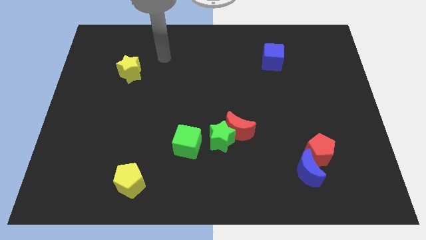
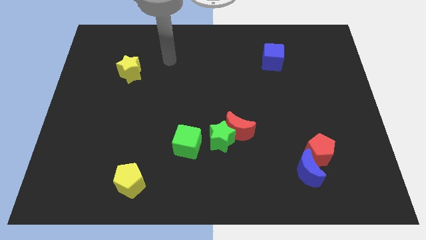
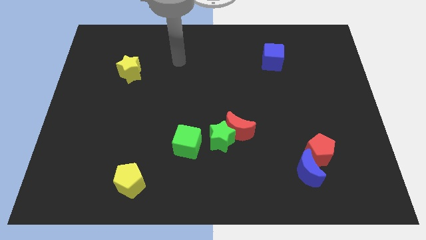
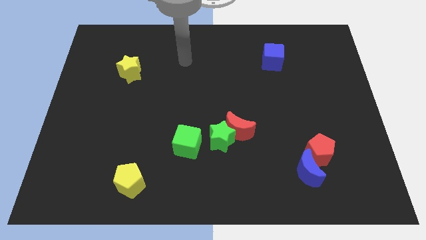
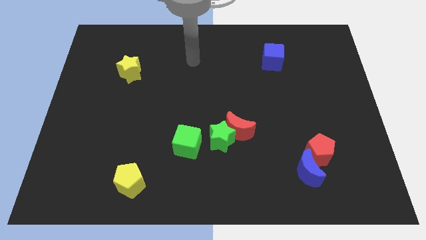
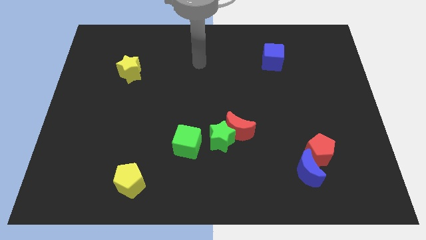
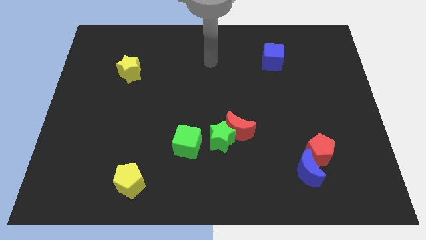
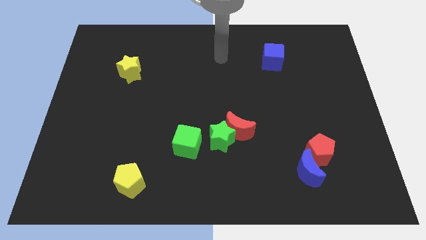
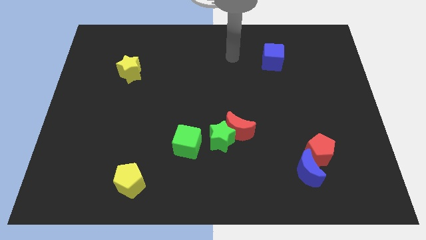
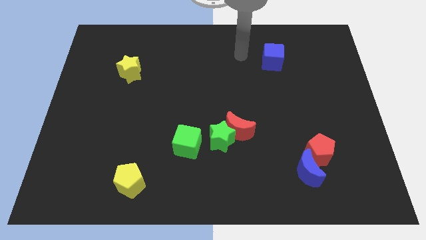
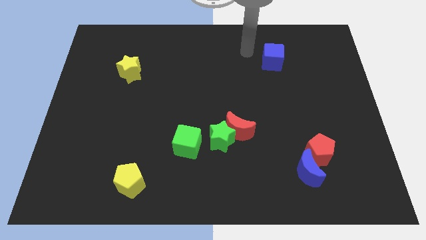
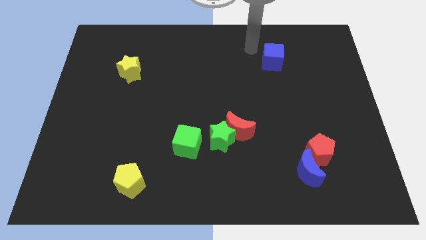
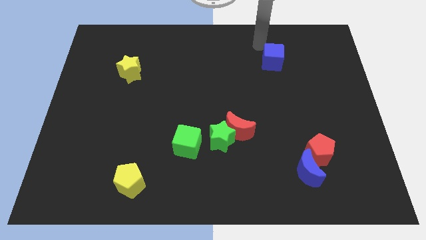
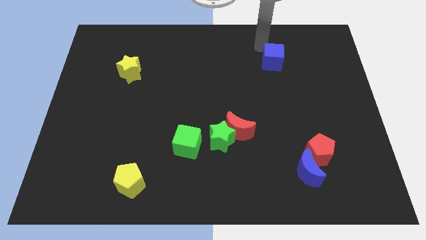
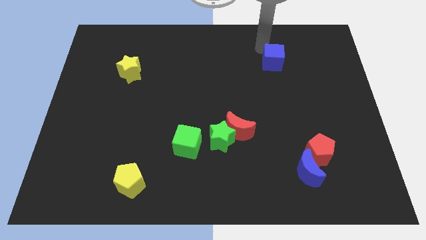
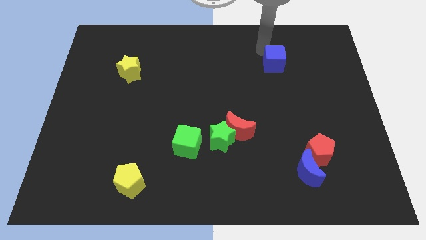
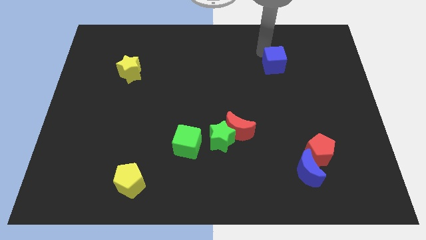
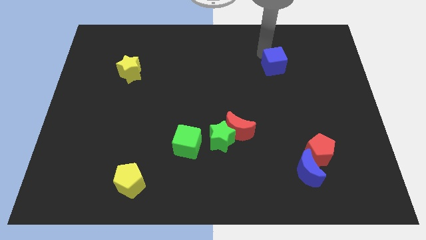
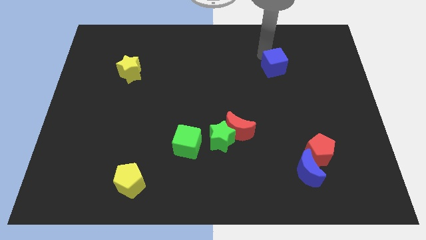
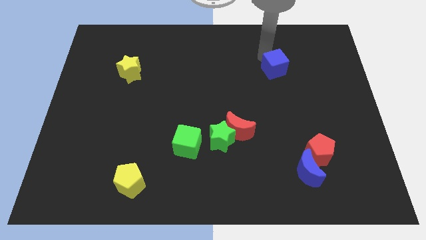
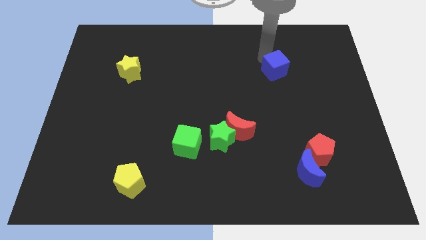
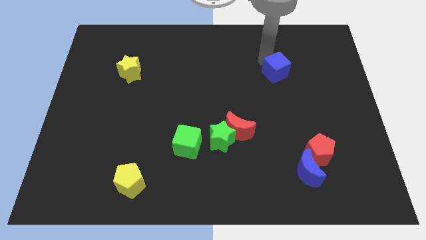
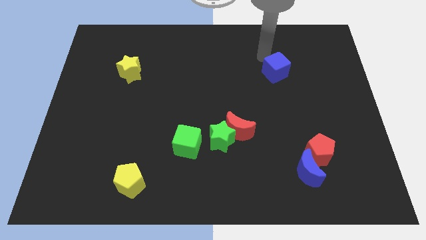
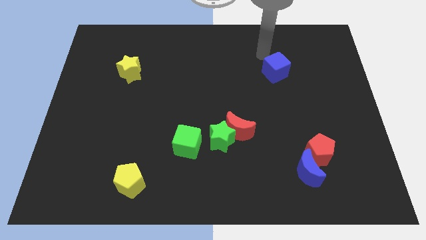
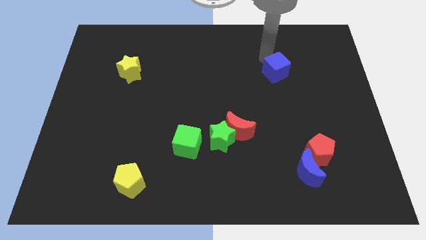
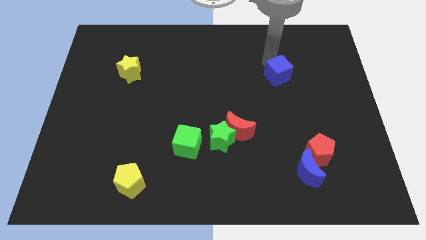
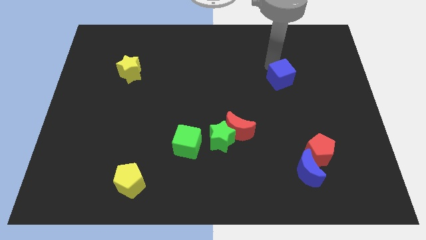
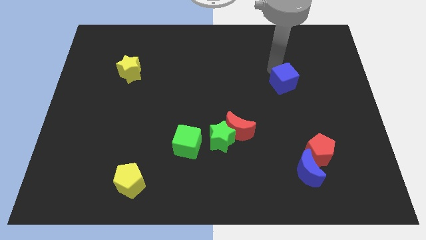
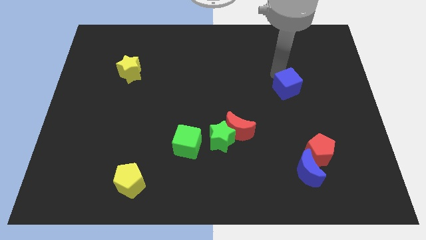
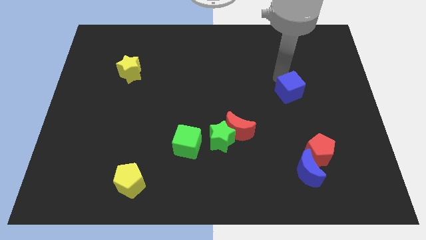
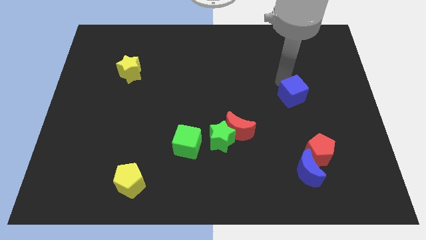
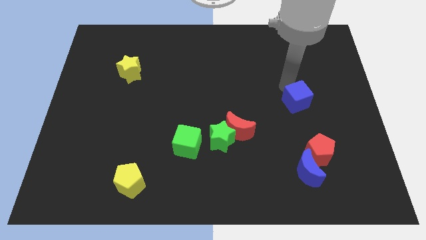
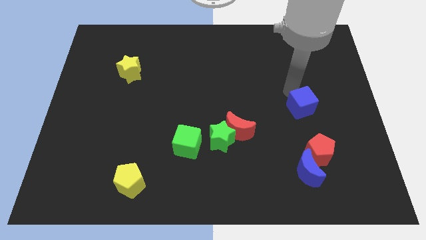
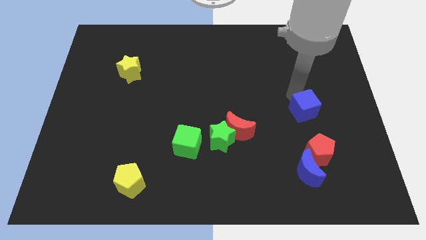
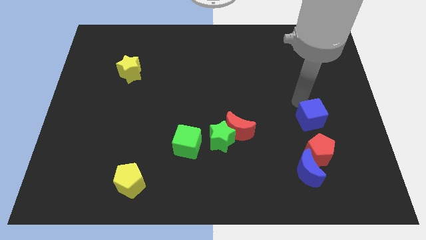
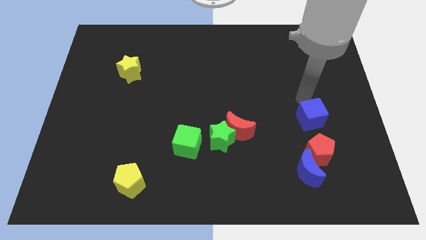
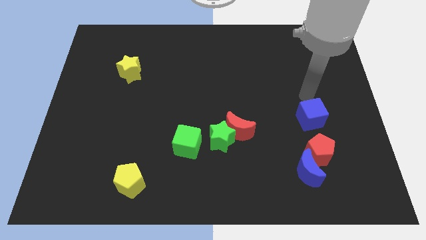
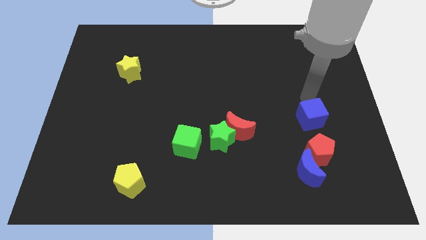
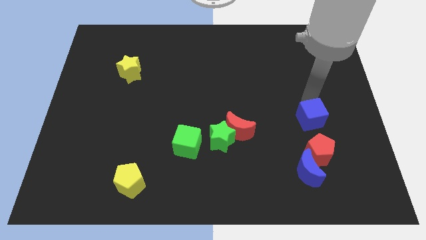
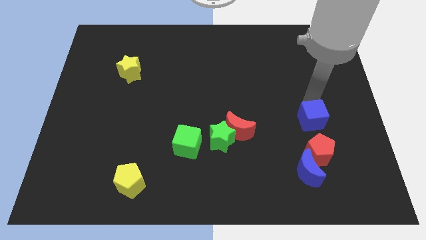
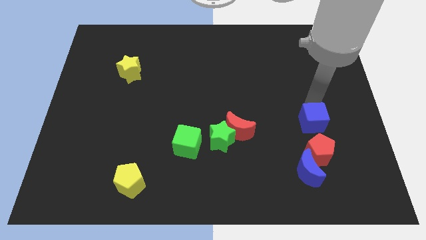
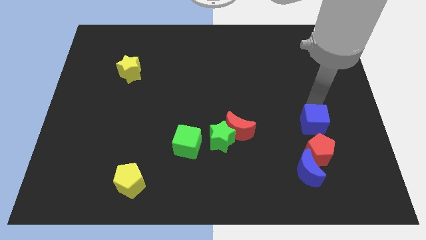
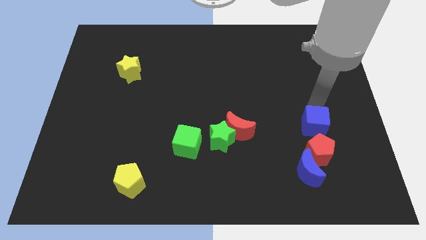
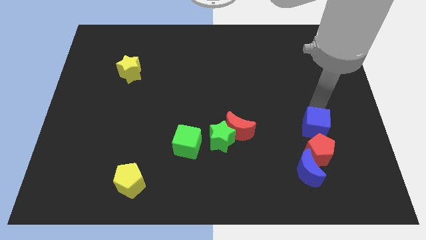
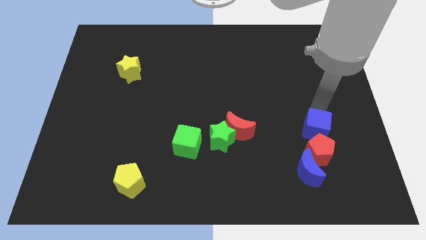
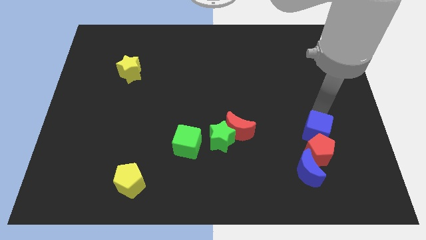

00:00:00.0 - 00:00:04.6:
move the blue cube next to the red pentagon

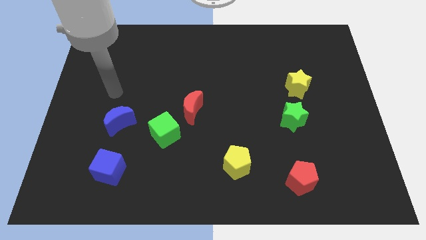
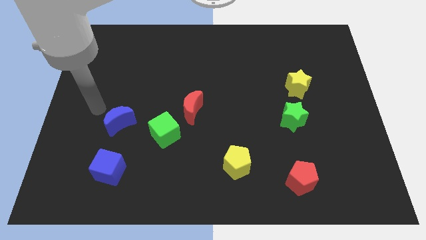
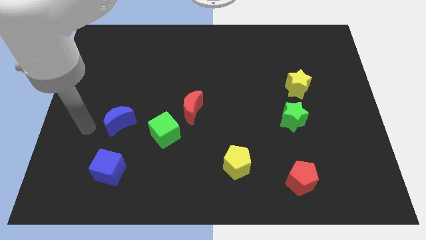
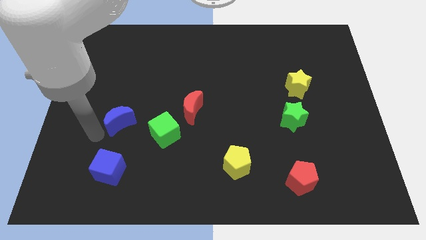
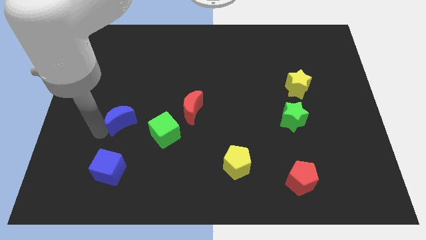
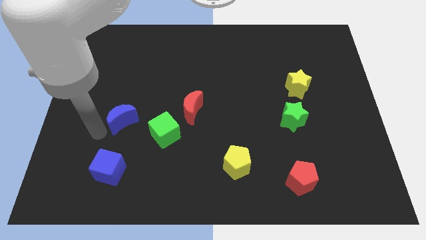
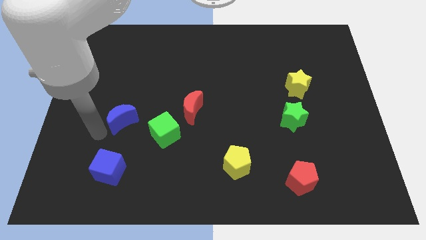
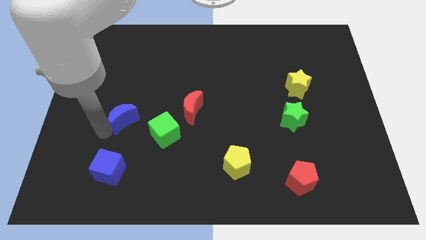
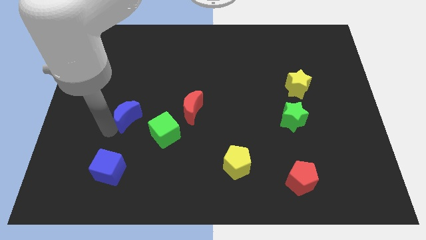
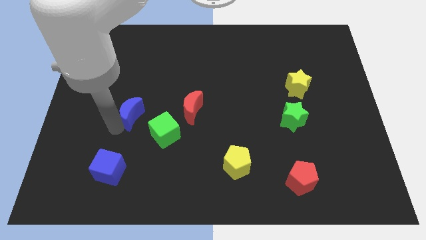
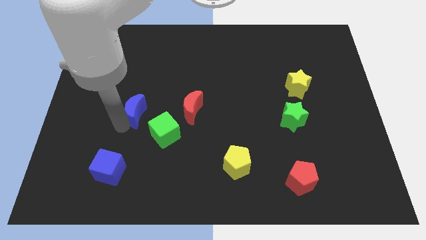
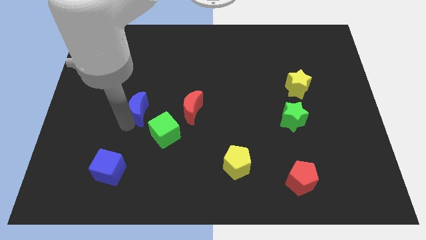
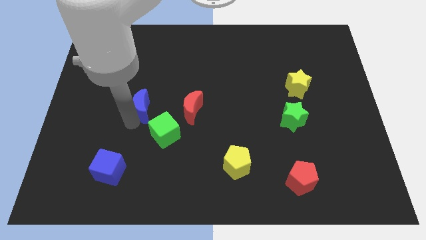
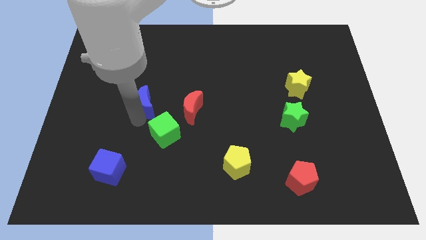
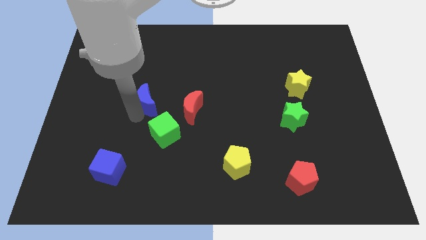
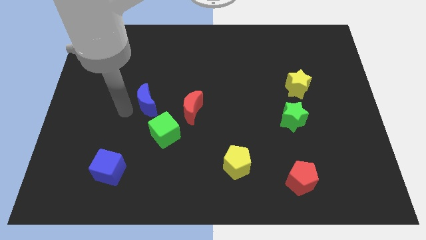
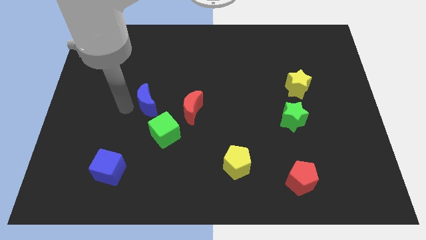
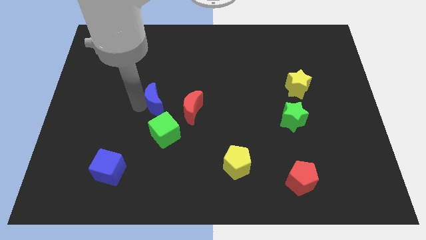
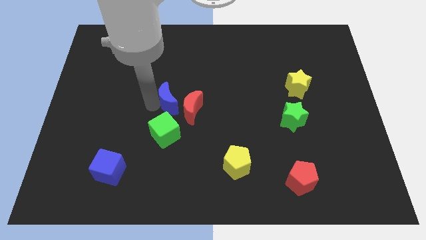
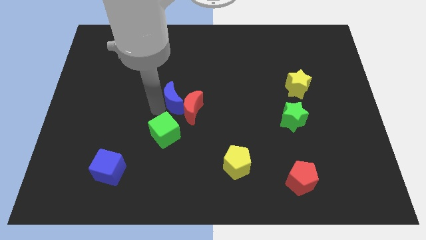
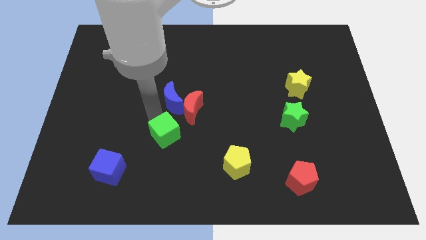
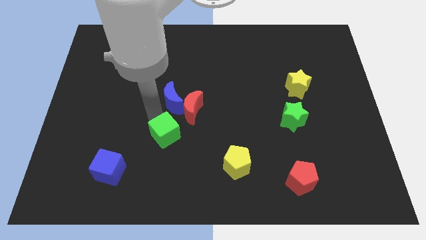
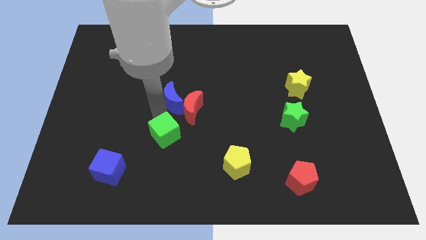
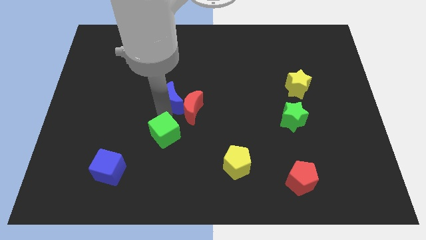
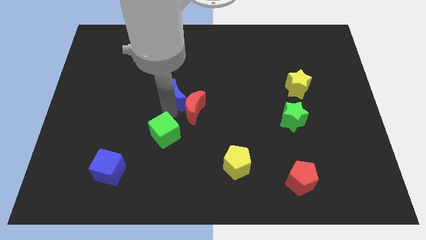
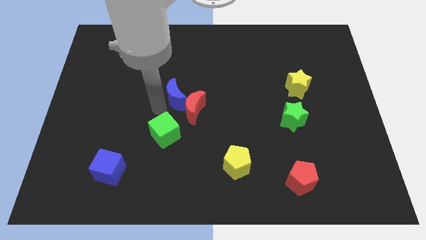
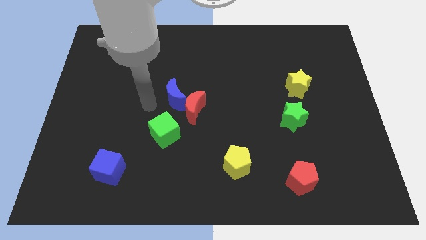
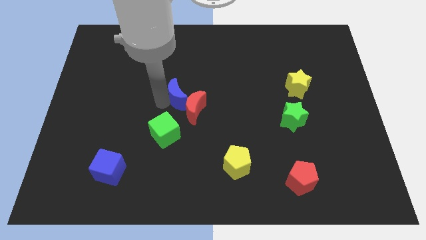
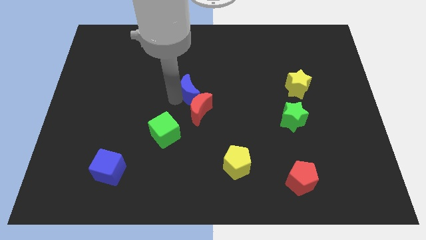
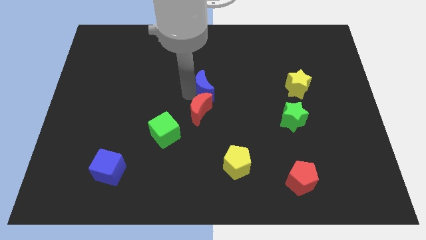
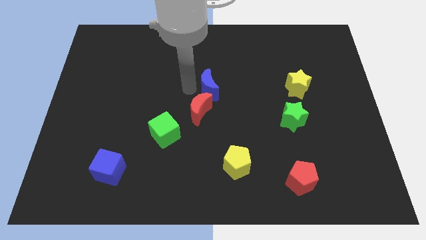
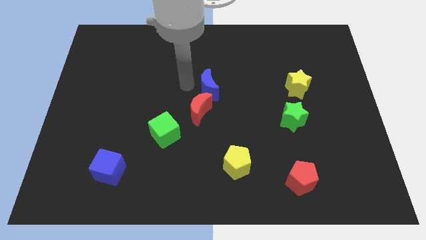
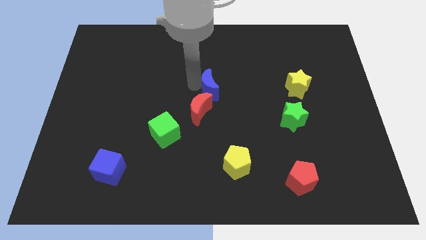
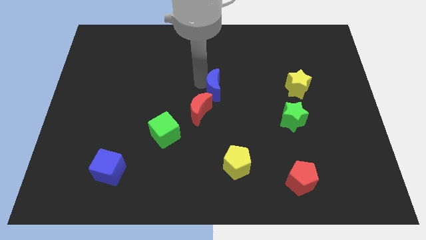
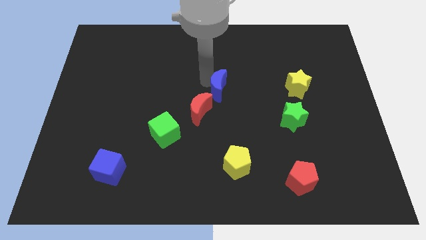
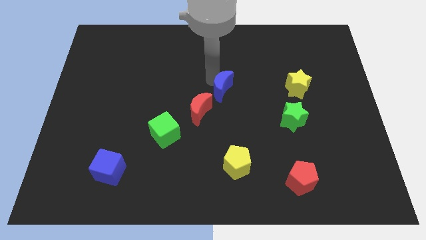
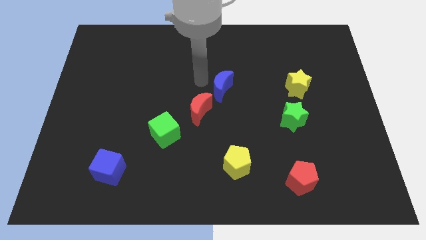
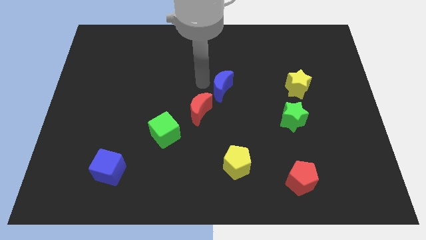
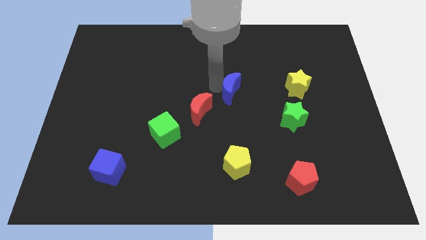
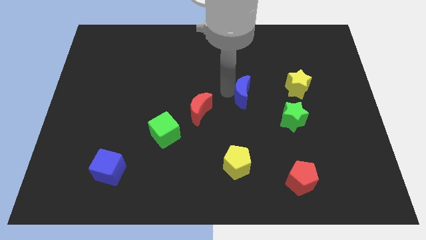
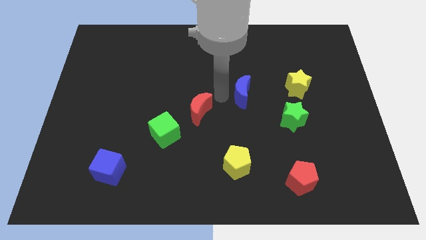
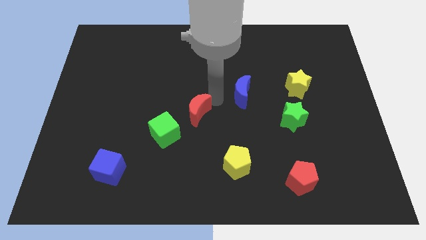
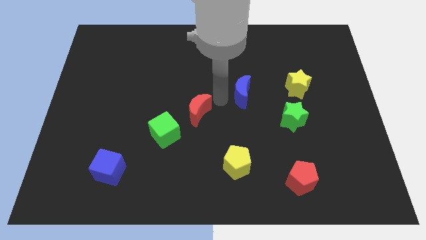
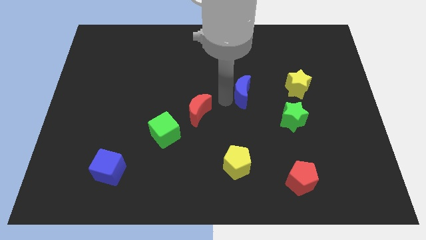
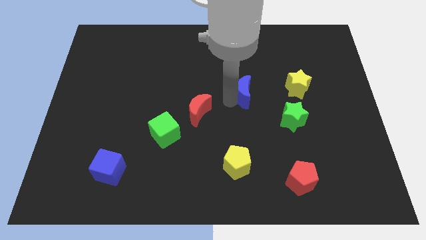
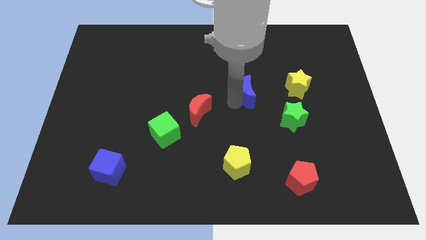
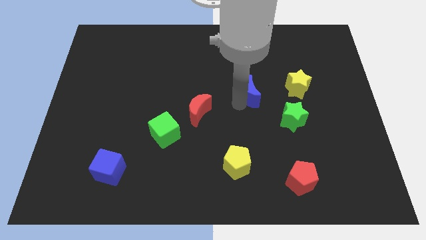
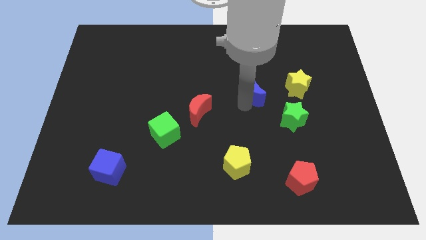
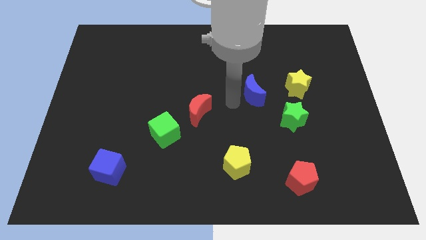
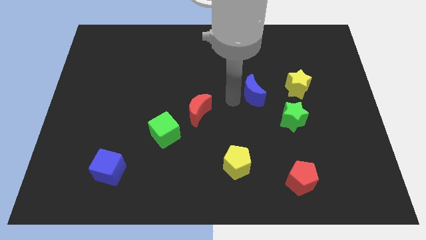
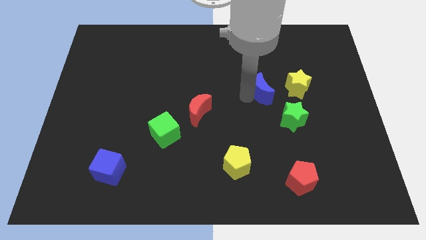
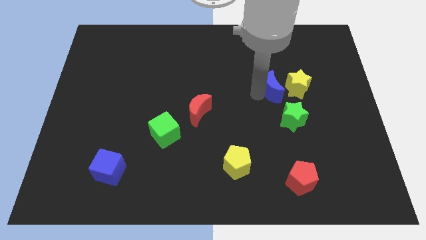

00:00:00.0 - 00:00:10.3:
move the blue moon to the yellow star
